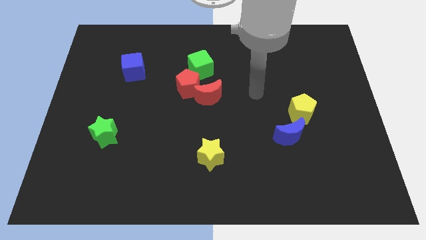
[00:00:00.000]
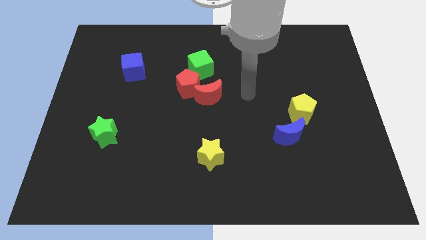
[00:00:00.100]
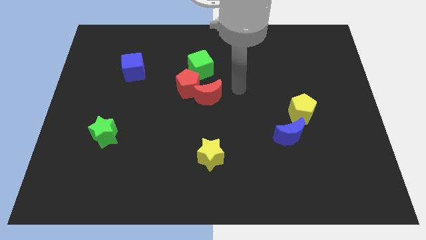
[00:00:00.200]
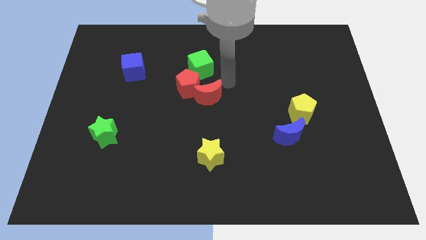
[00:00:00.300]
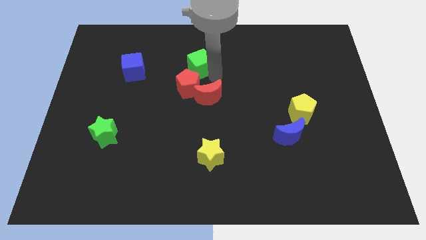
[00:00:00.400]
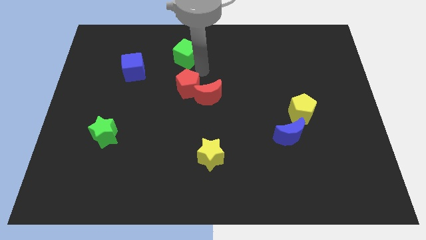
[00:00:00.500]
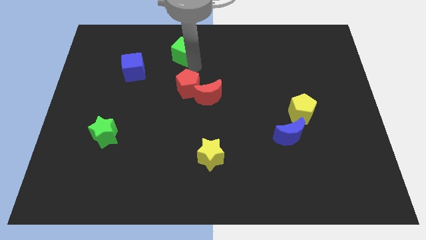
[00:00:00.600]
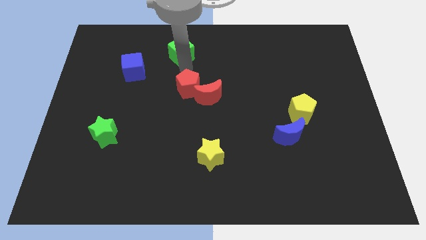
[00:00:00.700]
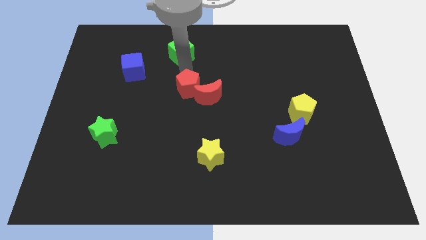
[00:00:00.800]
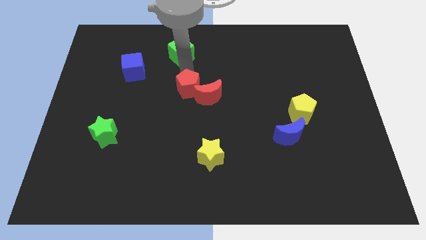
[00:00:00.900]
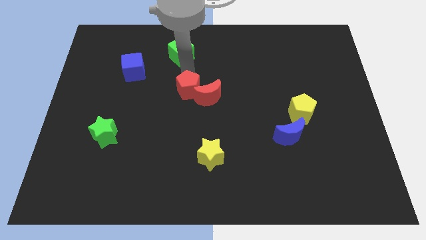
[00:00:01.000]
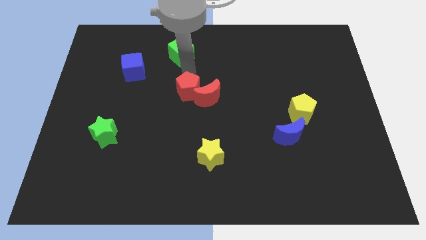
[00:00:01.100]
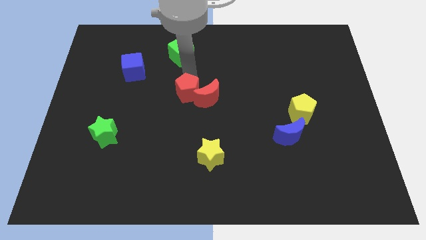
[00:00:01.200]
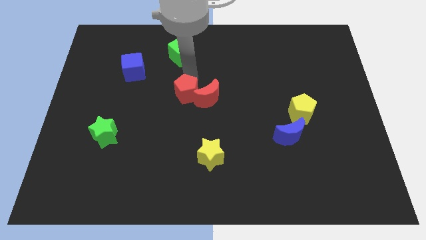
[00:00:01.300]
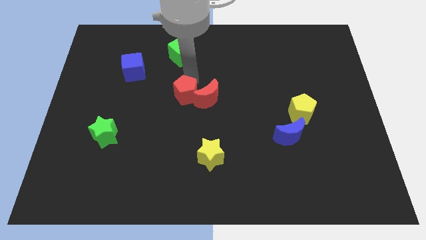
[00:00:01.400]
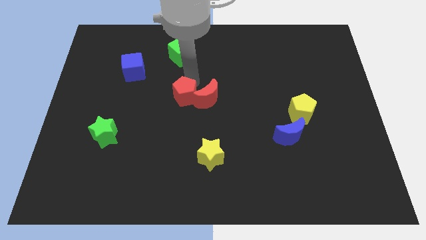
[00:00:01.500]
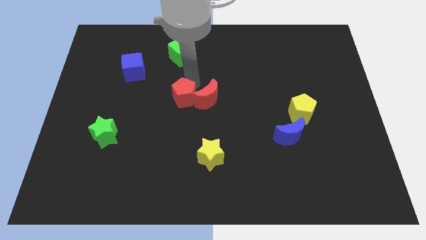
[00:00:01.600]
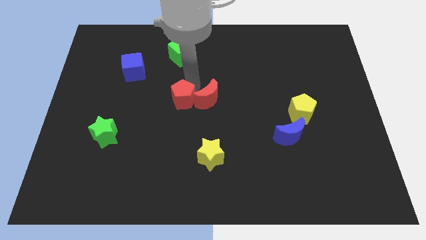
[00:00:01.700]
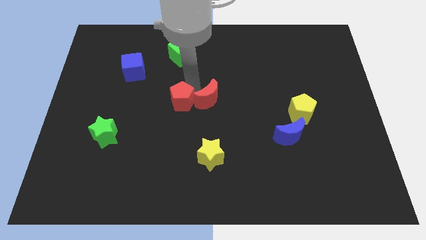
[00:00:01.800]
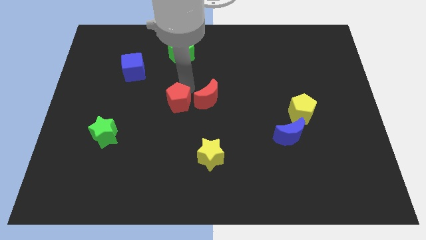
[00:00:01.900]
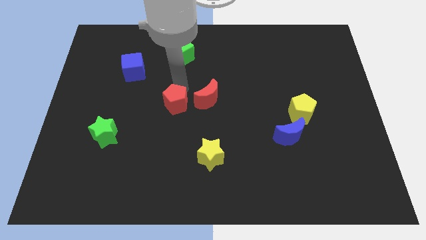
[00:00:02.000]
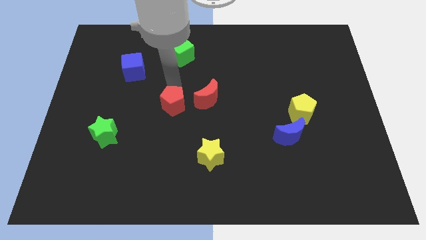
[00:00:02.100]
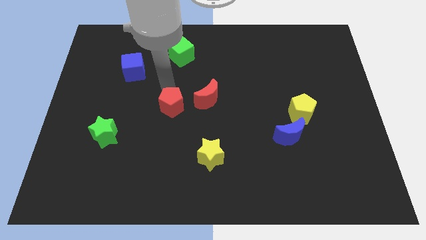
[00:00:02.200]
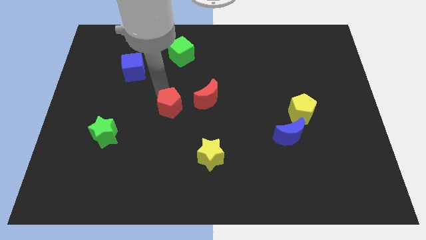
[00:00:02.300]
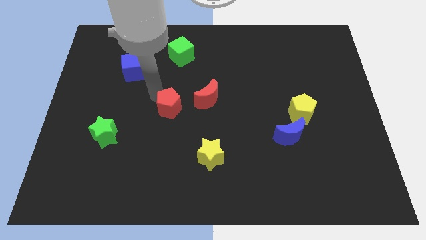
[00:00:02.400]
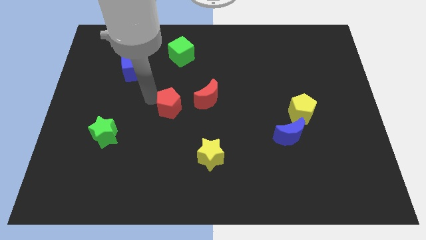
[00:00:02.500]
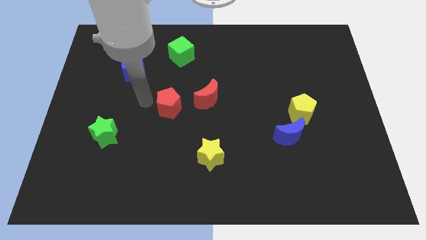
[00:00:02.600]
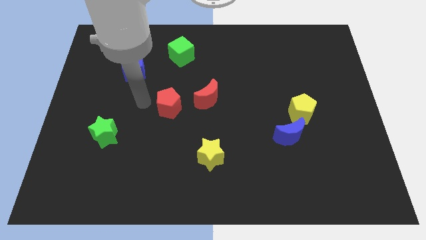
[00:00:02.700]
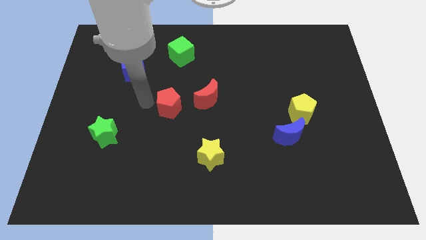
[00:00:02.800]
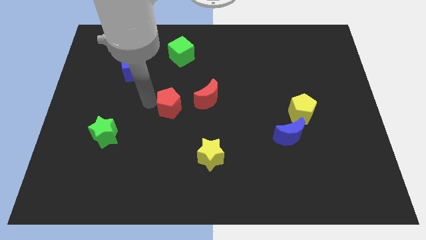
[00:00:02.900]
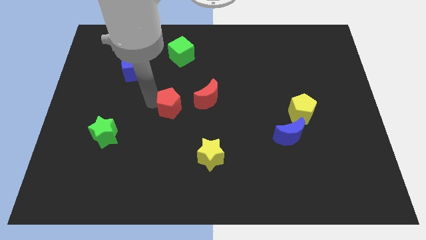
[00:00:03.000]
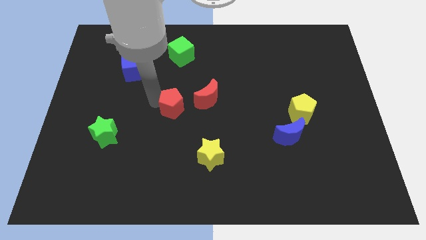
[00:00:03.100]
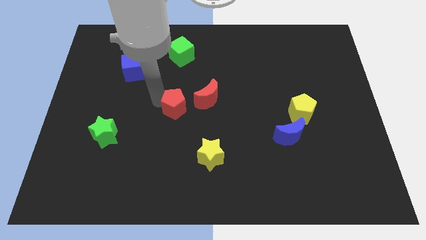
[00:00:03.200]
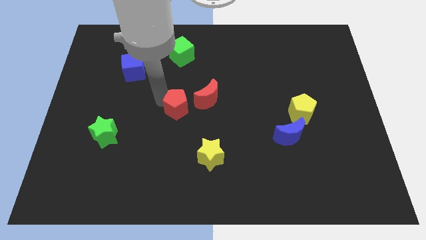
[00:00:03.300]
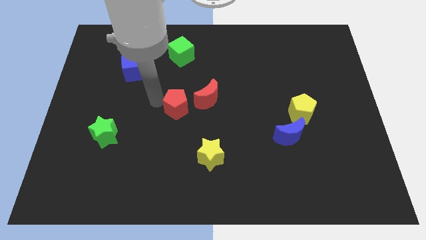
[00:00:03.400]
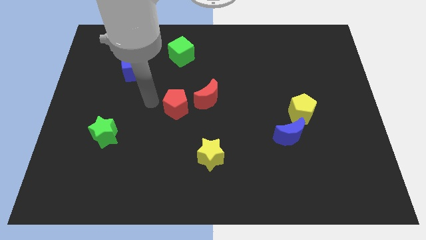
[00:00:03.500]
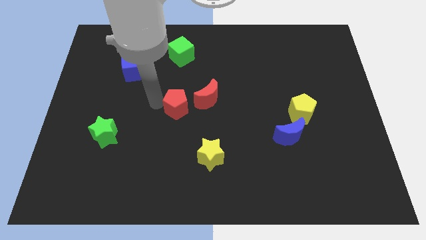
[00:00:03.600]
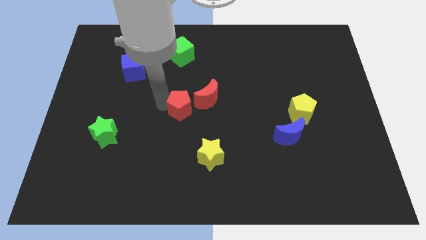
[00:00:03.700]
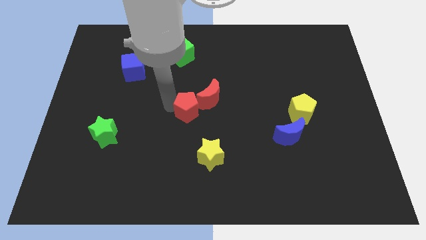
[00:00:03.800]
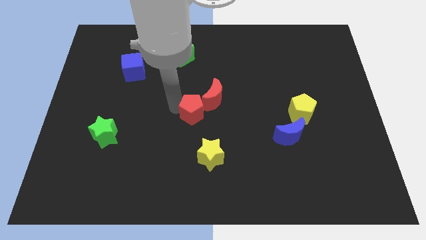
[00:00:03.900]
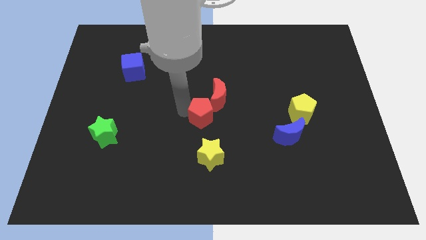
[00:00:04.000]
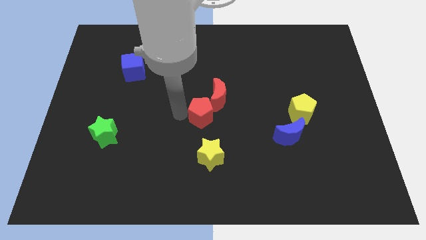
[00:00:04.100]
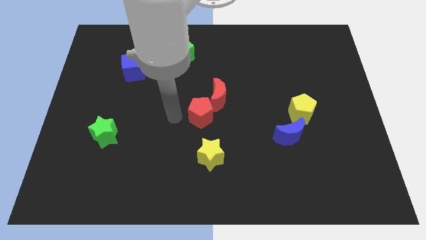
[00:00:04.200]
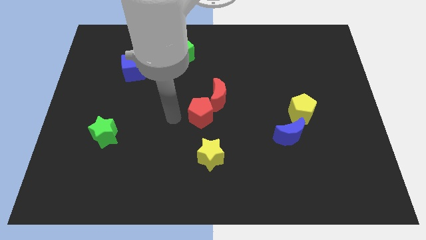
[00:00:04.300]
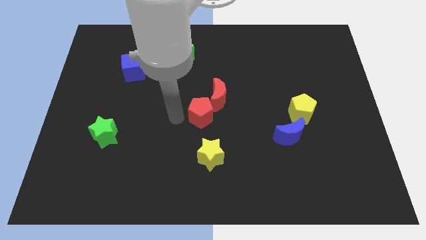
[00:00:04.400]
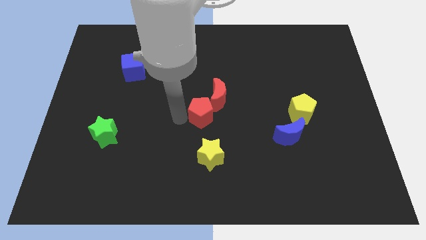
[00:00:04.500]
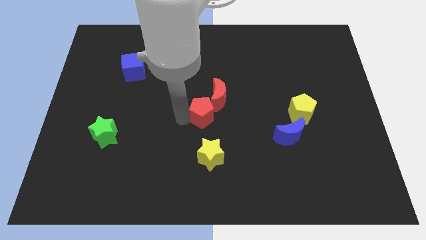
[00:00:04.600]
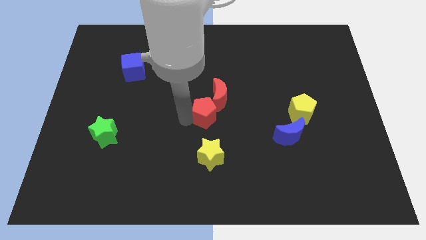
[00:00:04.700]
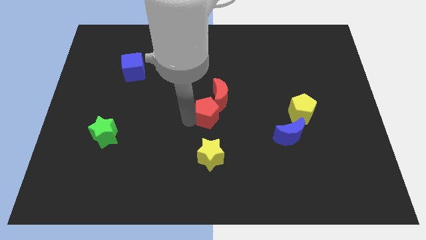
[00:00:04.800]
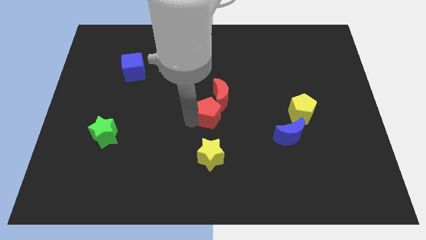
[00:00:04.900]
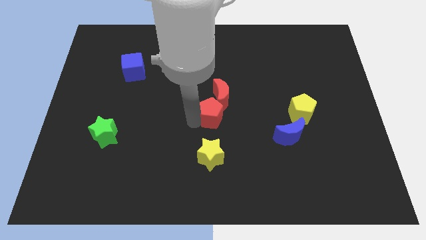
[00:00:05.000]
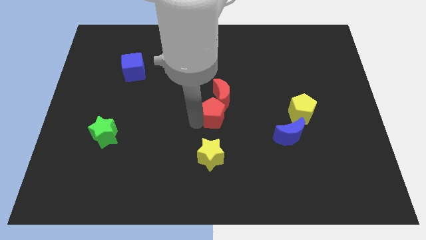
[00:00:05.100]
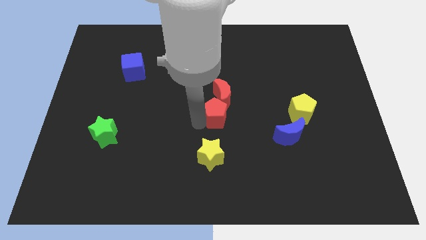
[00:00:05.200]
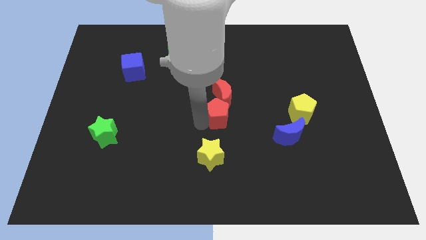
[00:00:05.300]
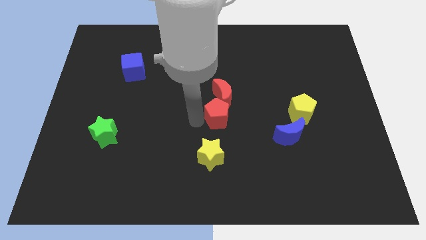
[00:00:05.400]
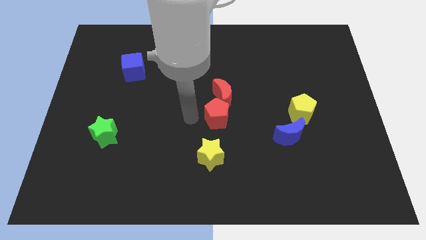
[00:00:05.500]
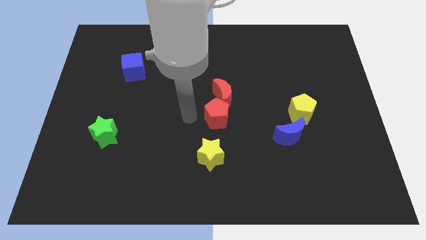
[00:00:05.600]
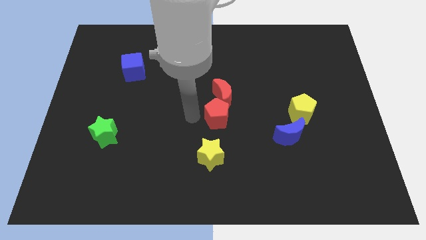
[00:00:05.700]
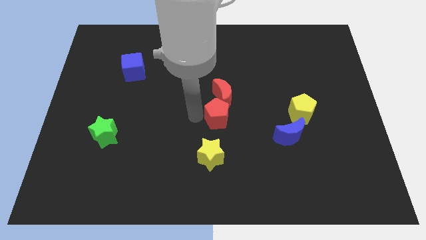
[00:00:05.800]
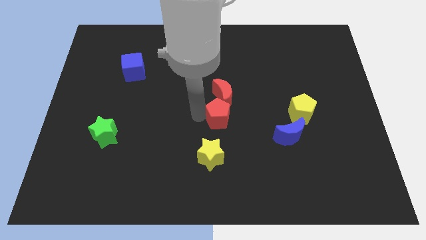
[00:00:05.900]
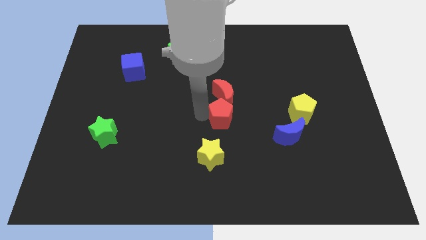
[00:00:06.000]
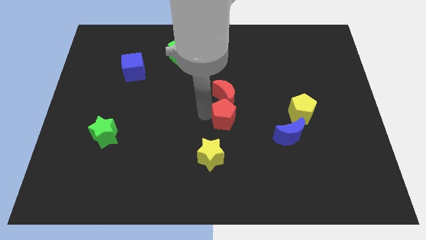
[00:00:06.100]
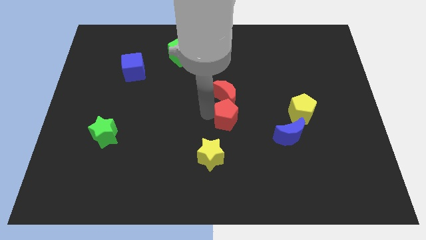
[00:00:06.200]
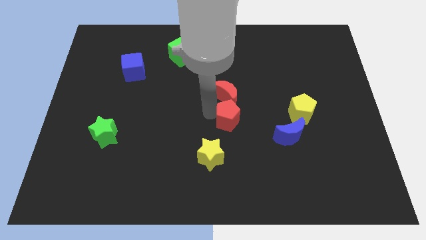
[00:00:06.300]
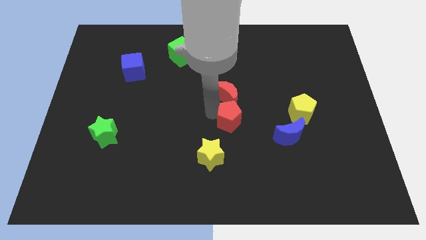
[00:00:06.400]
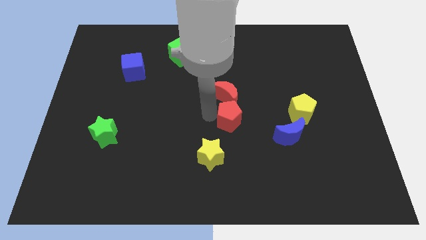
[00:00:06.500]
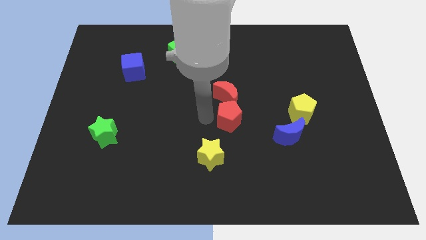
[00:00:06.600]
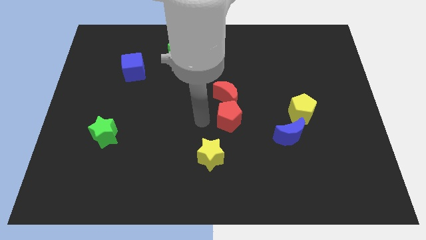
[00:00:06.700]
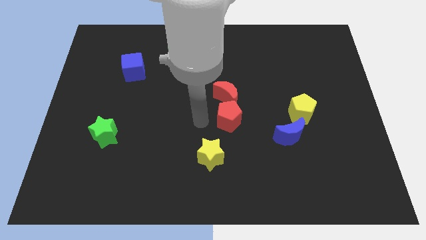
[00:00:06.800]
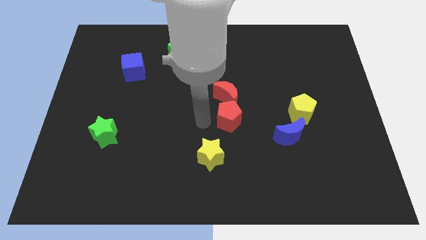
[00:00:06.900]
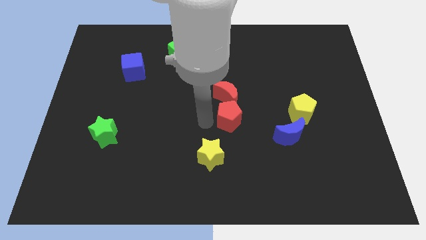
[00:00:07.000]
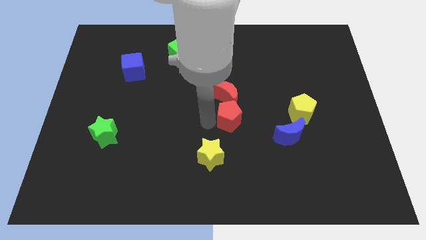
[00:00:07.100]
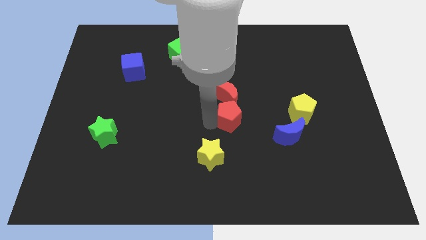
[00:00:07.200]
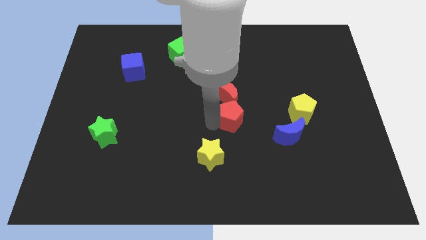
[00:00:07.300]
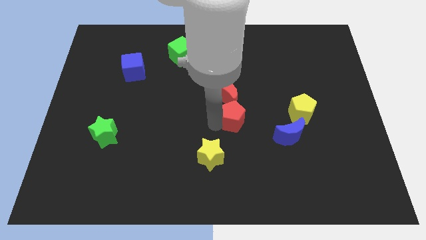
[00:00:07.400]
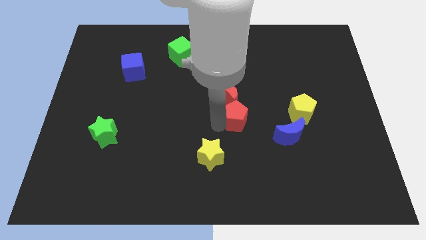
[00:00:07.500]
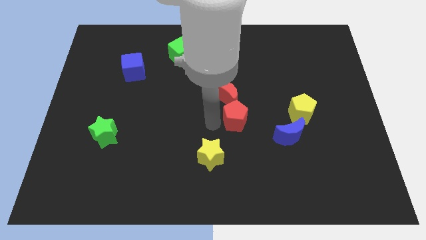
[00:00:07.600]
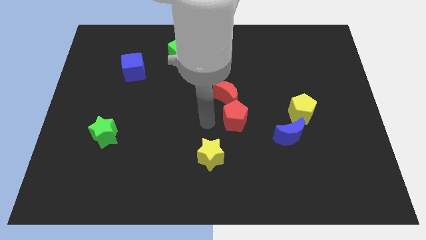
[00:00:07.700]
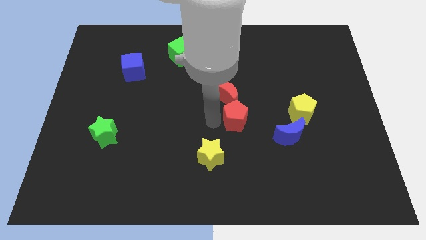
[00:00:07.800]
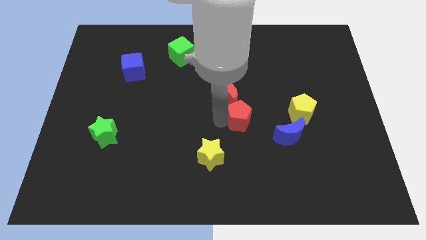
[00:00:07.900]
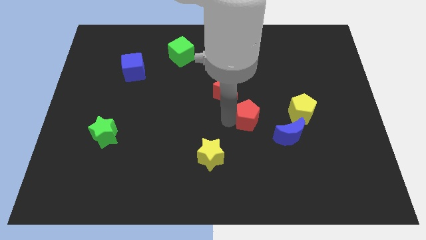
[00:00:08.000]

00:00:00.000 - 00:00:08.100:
move the red pentagon to the top left side of the blue moon
